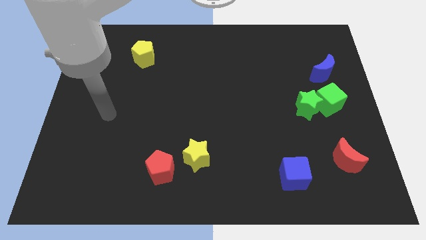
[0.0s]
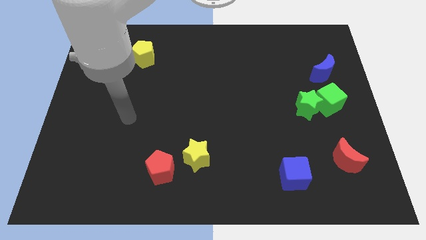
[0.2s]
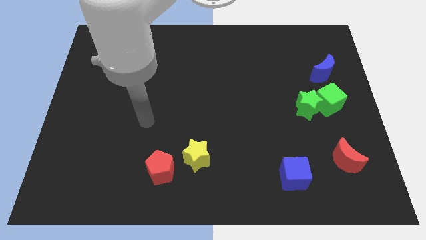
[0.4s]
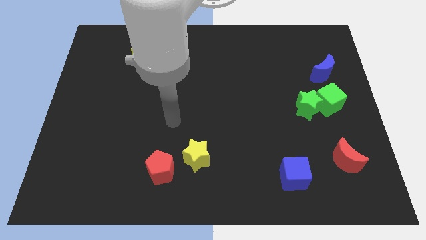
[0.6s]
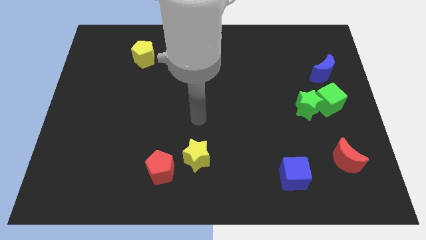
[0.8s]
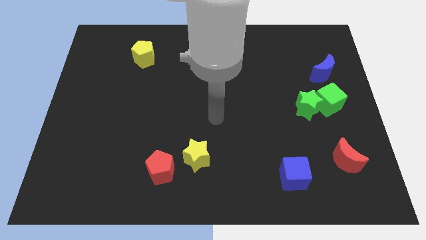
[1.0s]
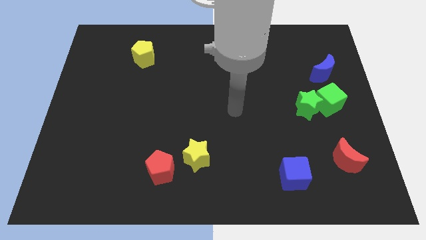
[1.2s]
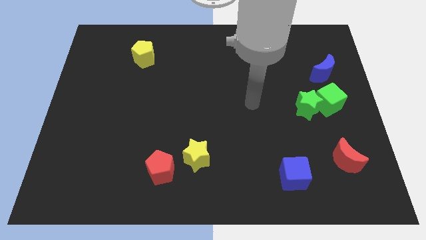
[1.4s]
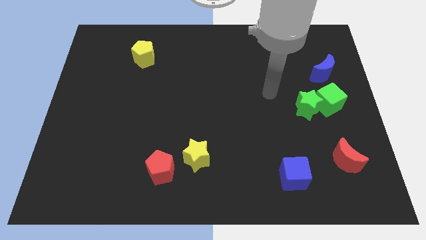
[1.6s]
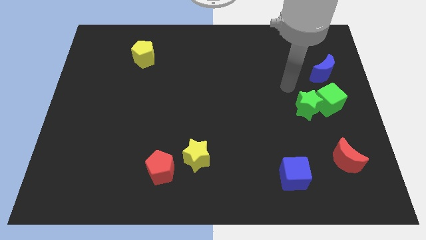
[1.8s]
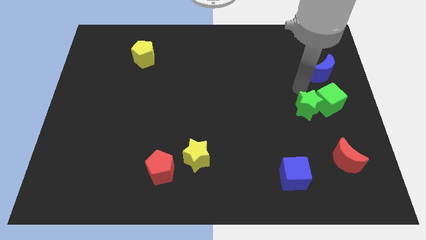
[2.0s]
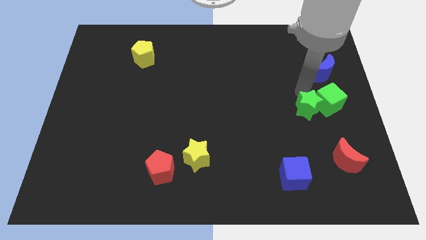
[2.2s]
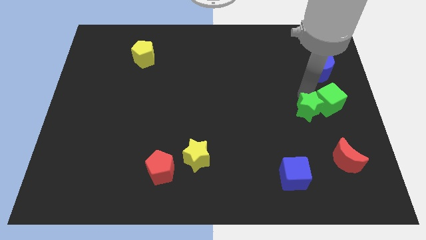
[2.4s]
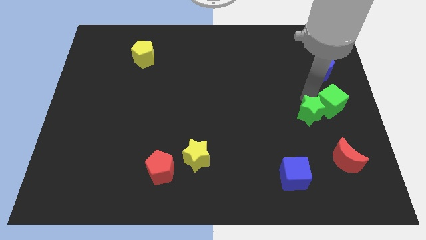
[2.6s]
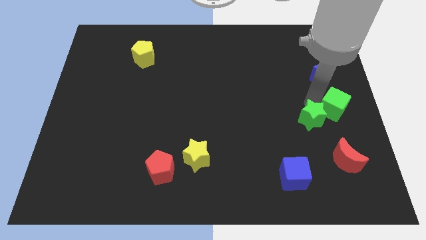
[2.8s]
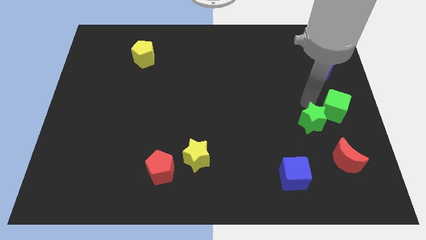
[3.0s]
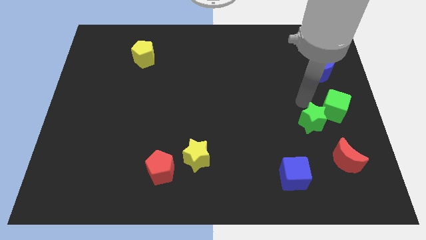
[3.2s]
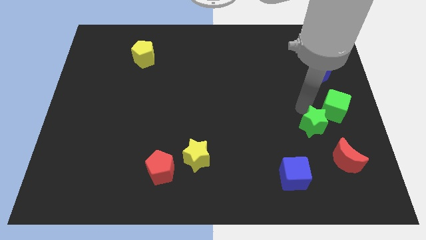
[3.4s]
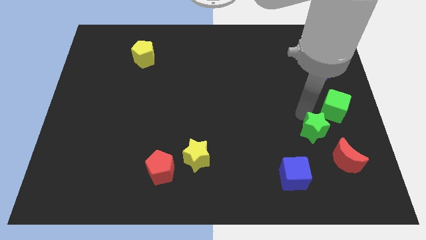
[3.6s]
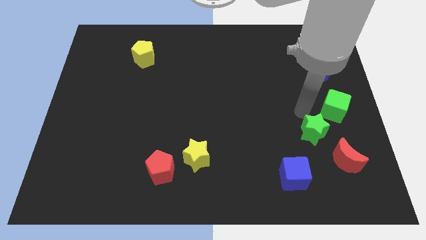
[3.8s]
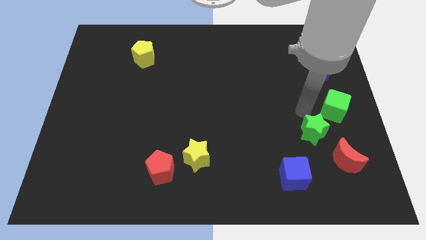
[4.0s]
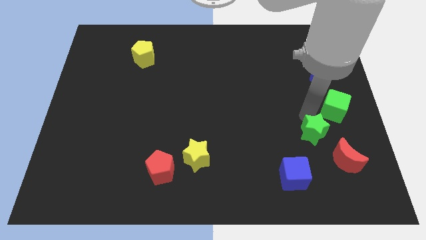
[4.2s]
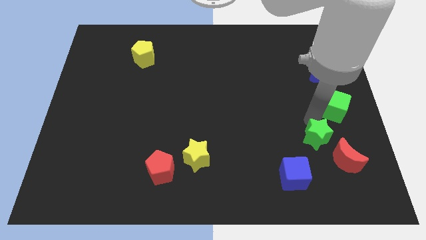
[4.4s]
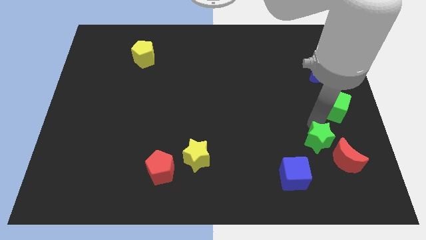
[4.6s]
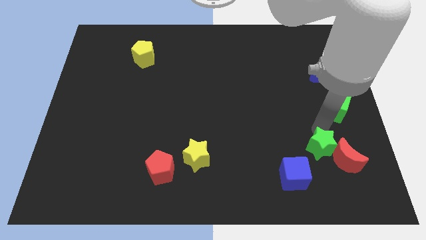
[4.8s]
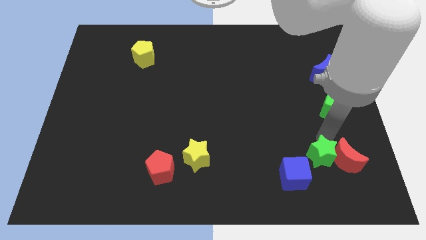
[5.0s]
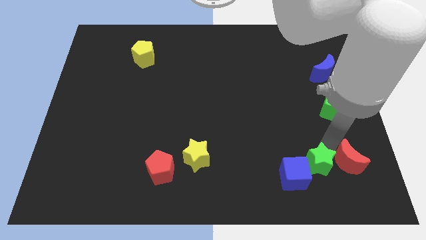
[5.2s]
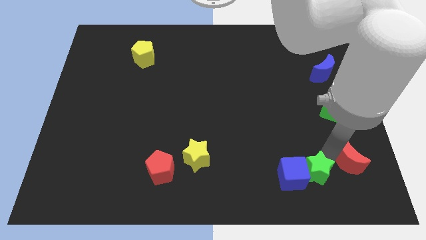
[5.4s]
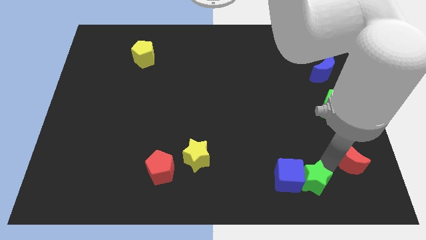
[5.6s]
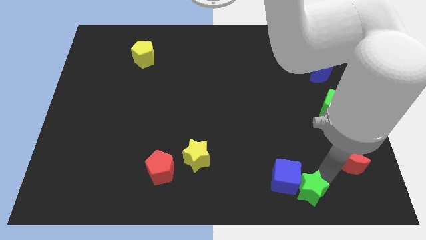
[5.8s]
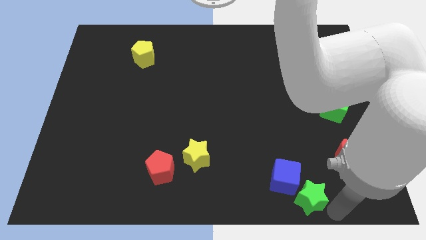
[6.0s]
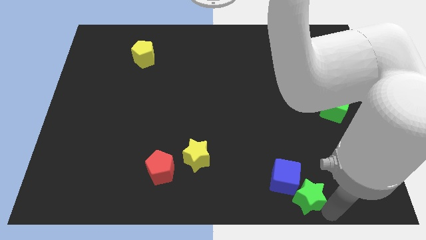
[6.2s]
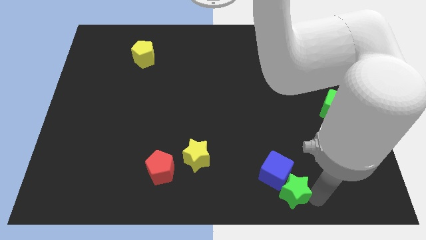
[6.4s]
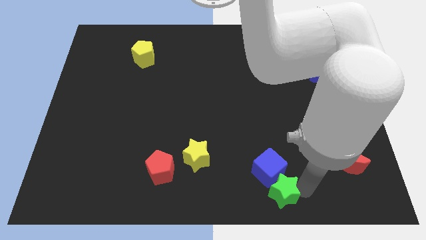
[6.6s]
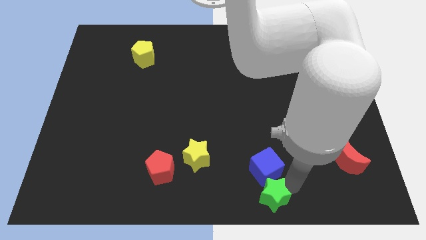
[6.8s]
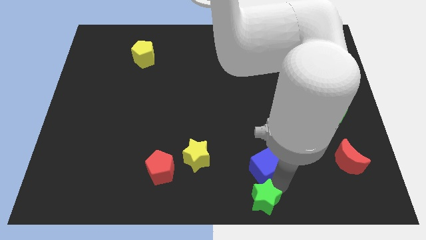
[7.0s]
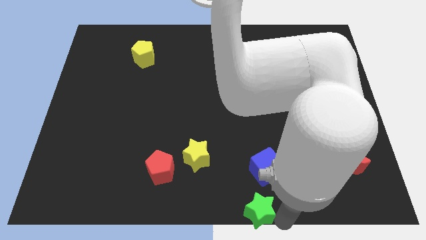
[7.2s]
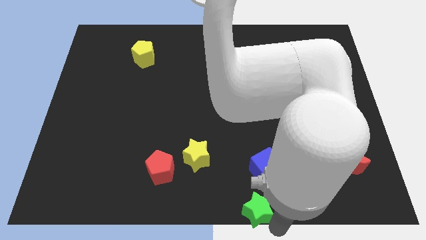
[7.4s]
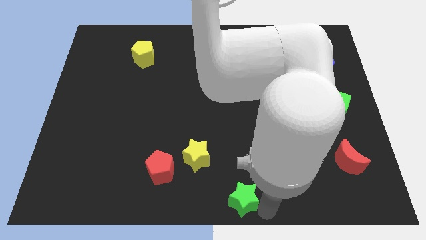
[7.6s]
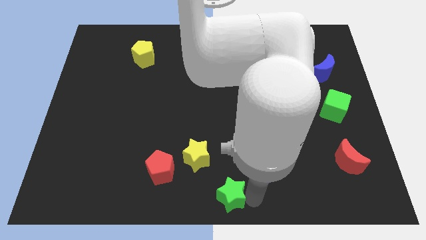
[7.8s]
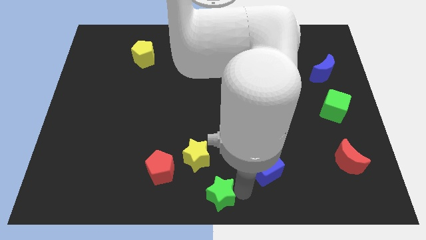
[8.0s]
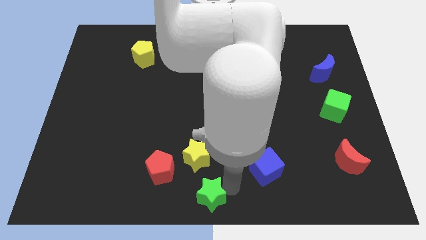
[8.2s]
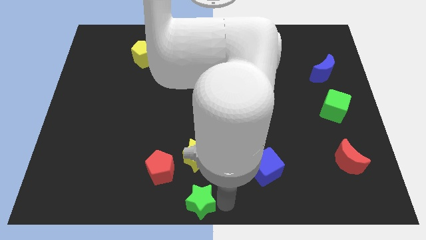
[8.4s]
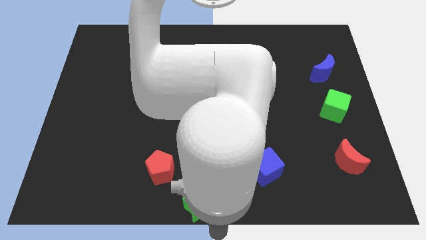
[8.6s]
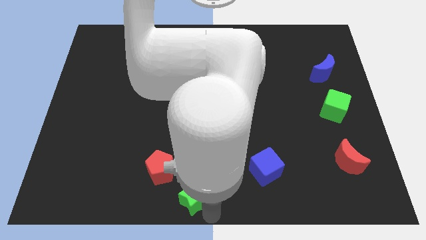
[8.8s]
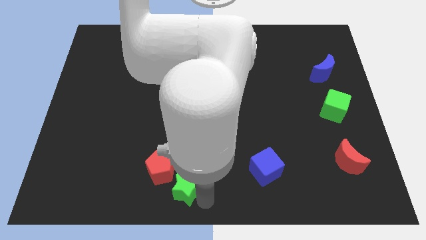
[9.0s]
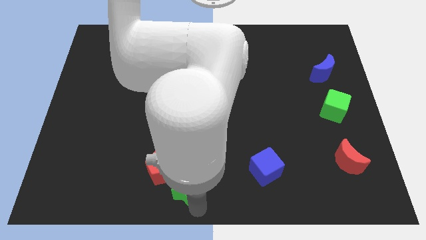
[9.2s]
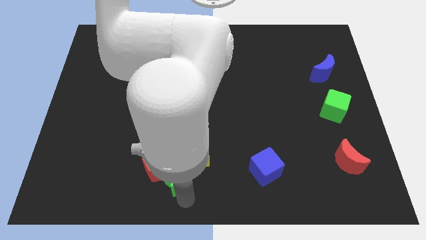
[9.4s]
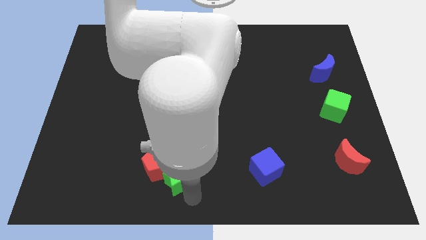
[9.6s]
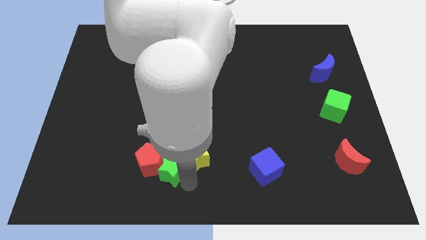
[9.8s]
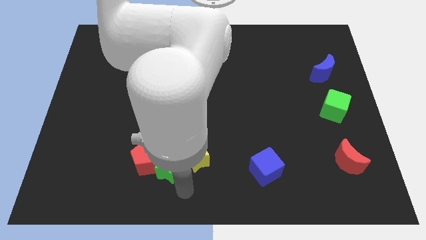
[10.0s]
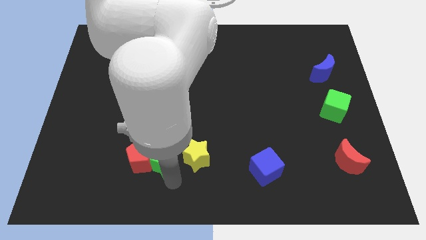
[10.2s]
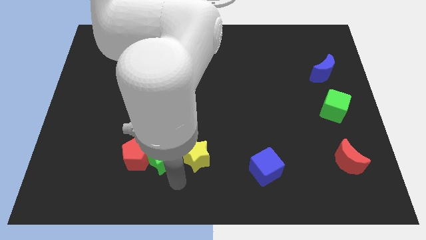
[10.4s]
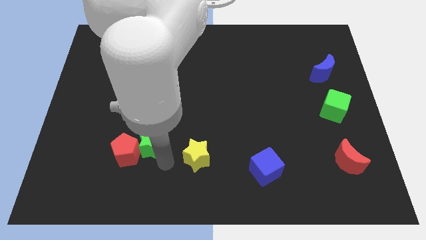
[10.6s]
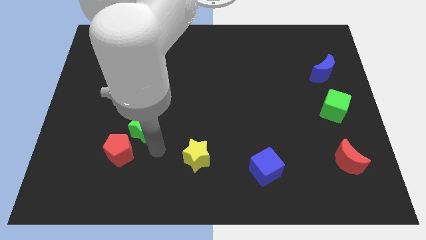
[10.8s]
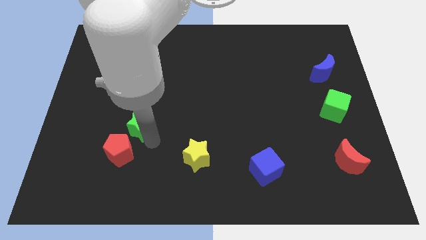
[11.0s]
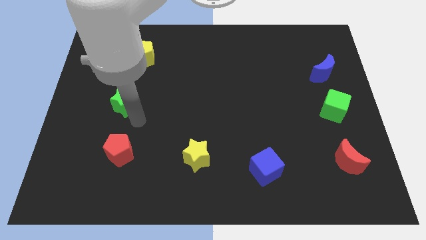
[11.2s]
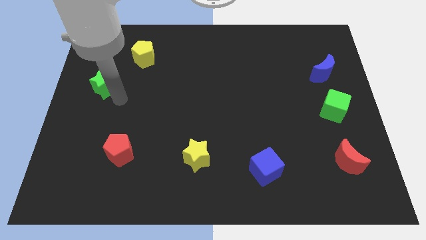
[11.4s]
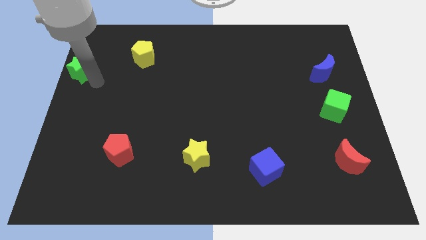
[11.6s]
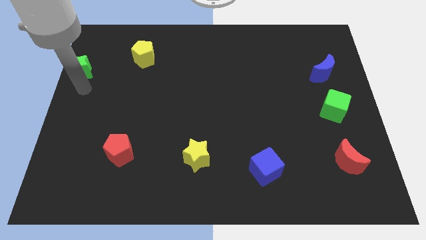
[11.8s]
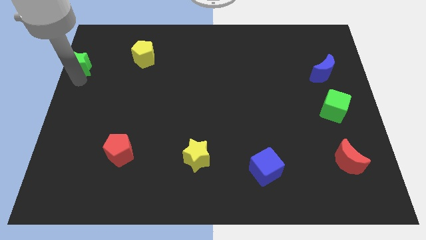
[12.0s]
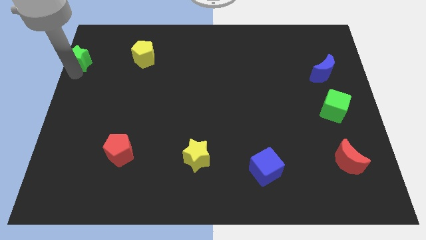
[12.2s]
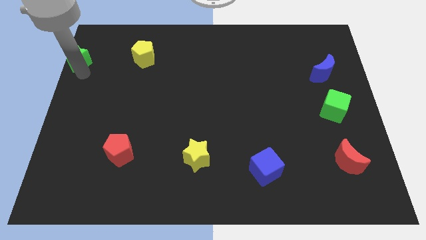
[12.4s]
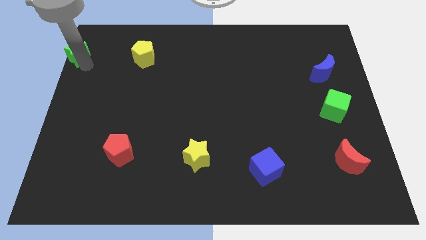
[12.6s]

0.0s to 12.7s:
slide the green star to the upper left corner
